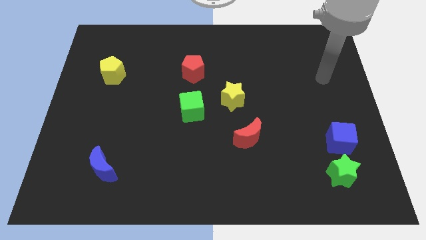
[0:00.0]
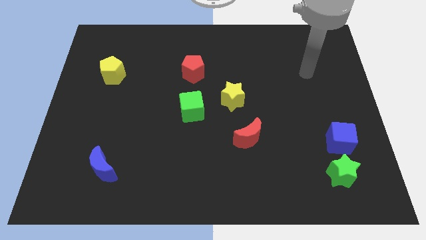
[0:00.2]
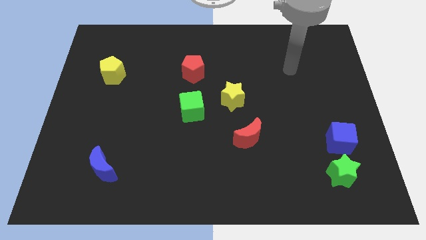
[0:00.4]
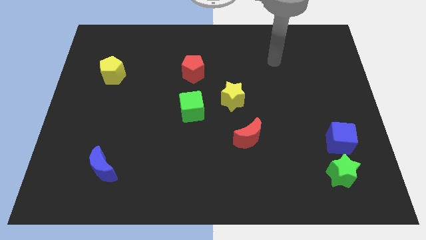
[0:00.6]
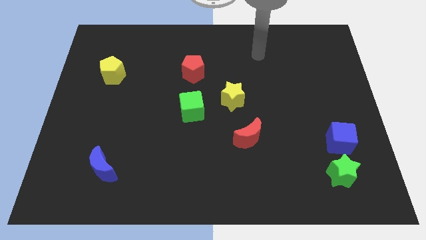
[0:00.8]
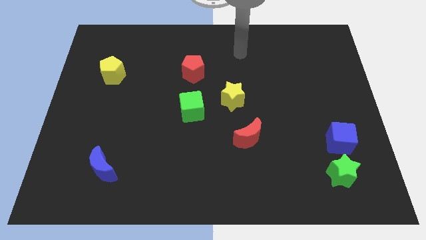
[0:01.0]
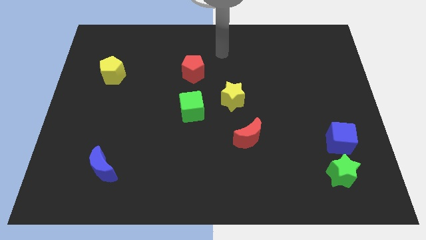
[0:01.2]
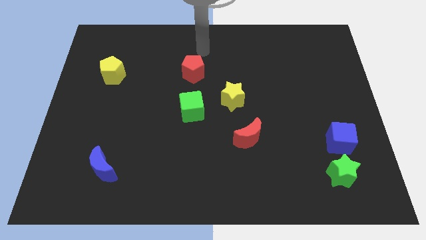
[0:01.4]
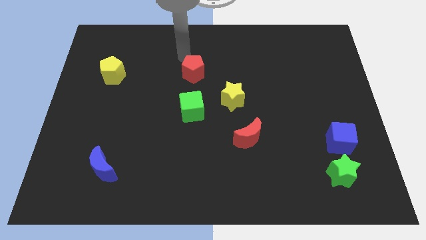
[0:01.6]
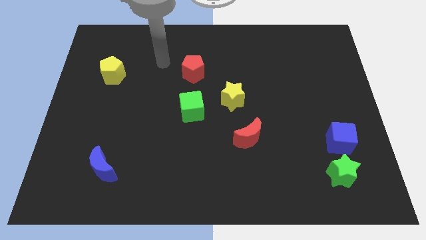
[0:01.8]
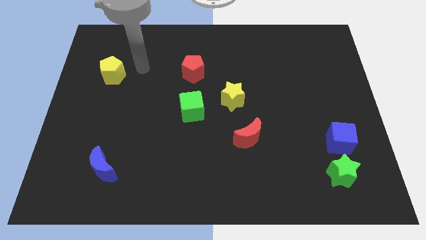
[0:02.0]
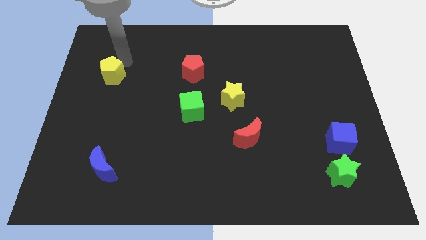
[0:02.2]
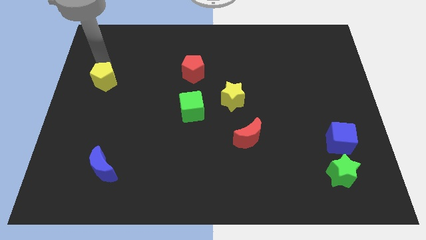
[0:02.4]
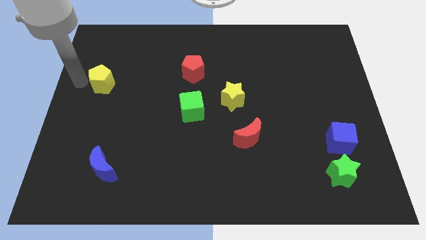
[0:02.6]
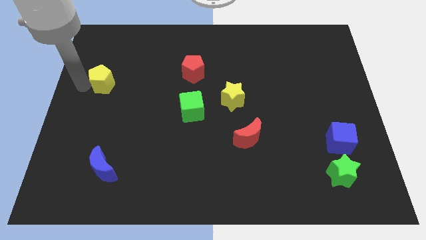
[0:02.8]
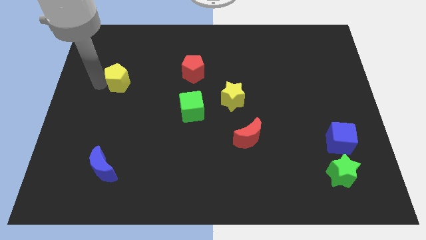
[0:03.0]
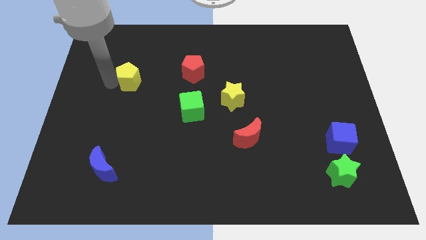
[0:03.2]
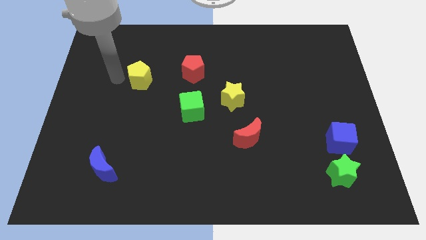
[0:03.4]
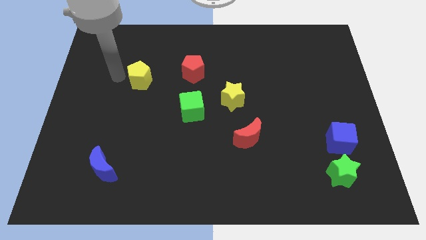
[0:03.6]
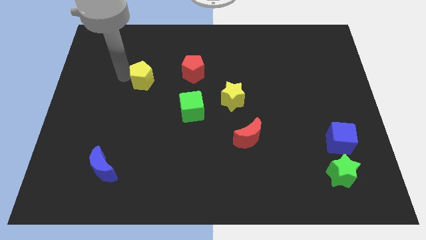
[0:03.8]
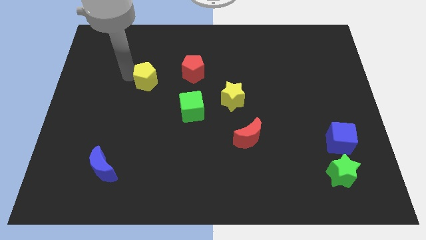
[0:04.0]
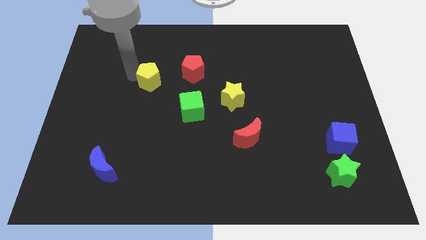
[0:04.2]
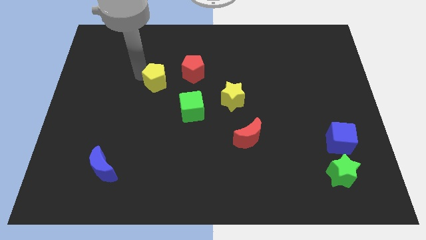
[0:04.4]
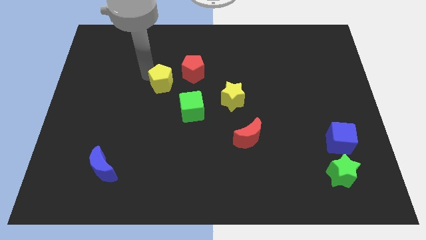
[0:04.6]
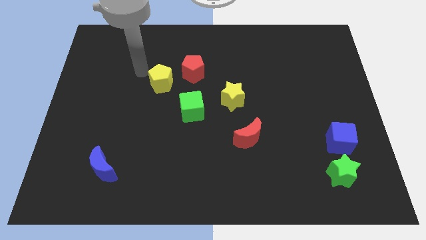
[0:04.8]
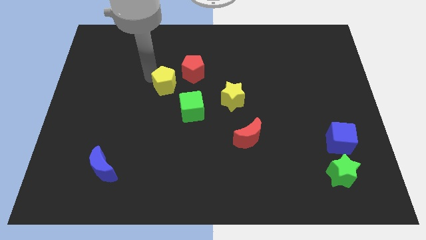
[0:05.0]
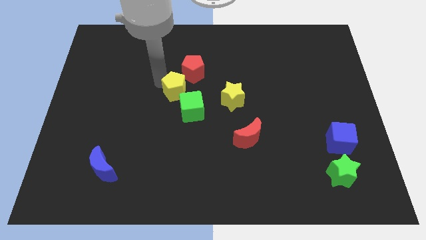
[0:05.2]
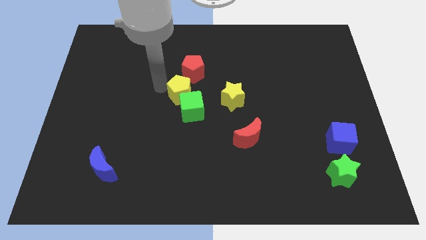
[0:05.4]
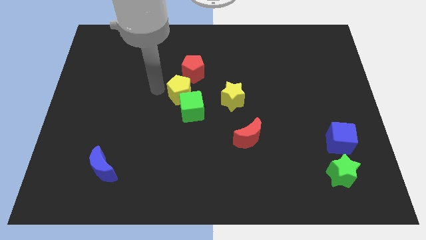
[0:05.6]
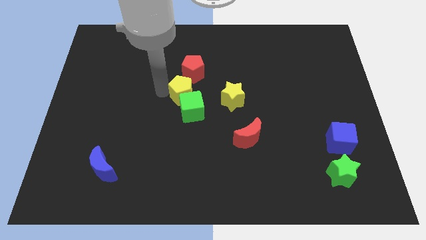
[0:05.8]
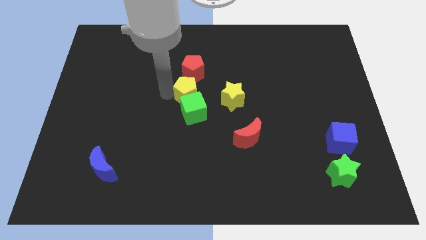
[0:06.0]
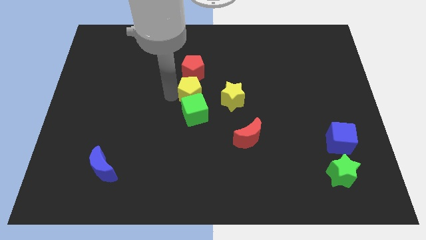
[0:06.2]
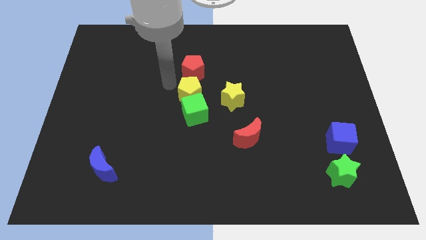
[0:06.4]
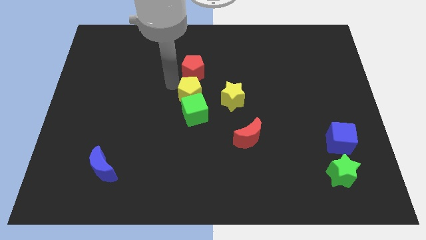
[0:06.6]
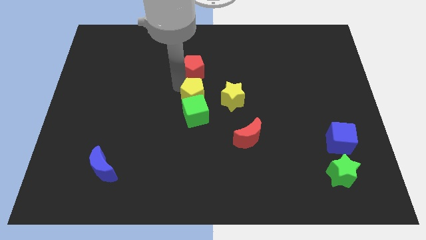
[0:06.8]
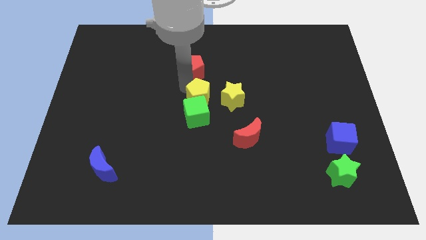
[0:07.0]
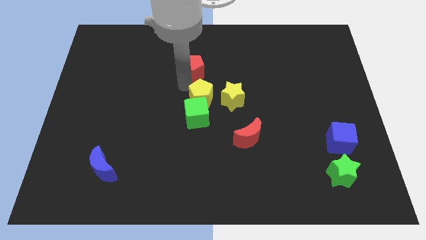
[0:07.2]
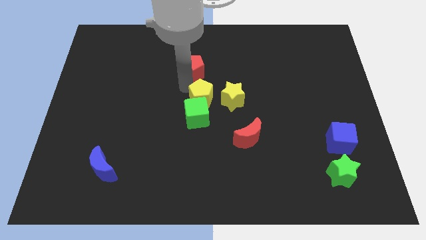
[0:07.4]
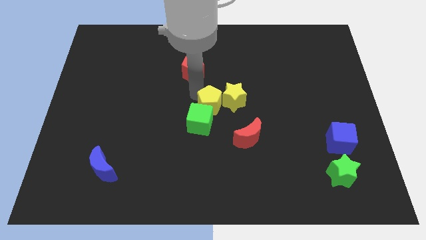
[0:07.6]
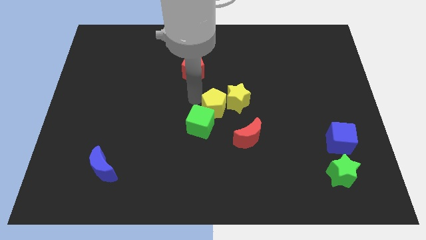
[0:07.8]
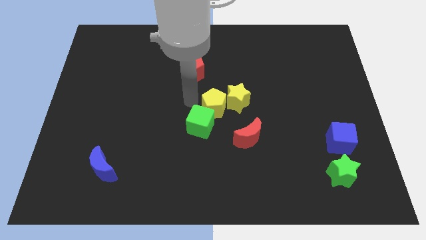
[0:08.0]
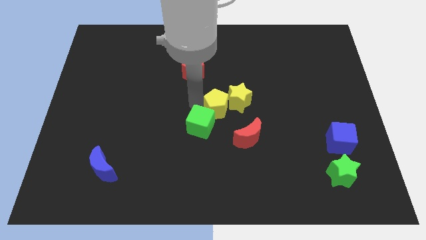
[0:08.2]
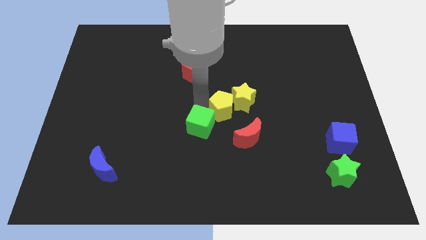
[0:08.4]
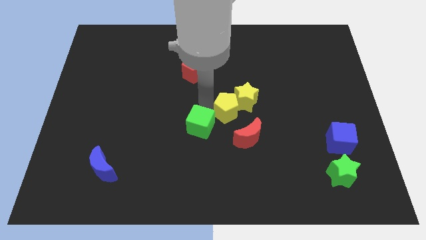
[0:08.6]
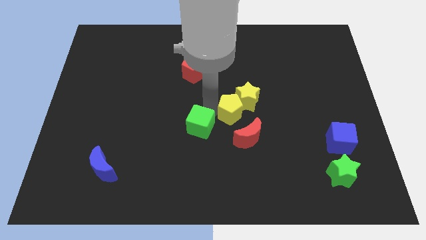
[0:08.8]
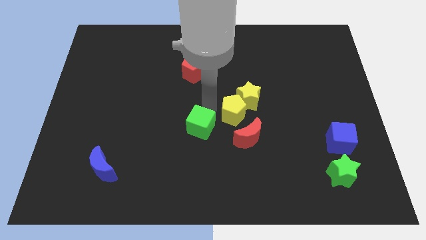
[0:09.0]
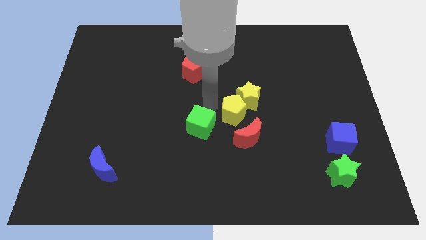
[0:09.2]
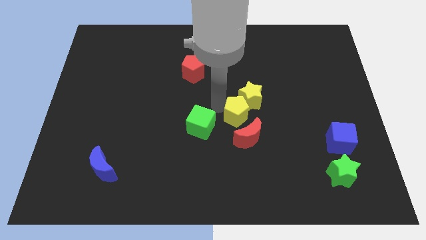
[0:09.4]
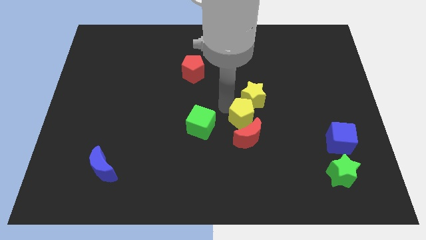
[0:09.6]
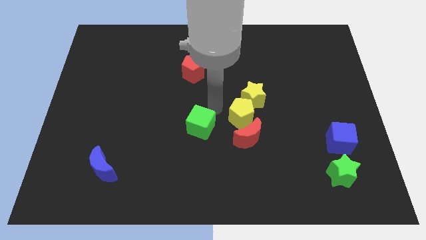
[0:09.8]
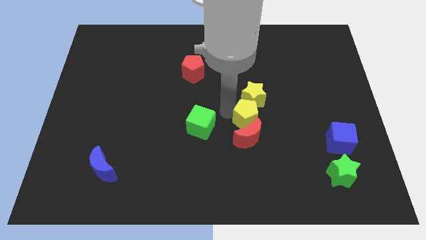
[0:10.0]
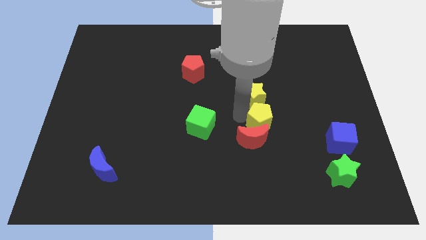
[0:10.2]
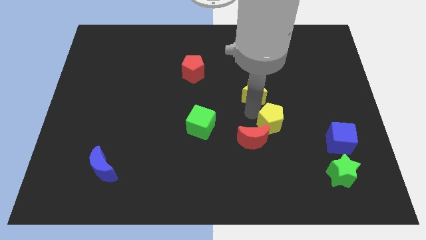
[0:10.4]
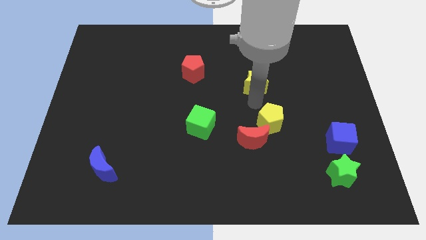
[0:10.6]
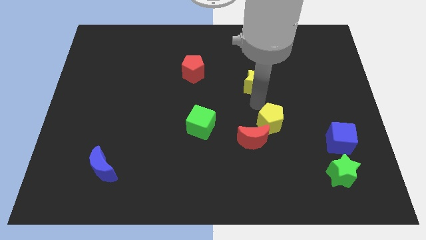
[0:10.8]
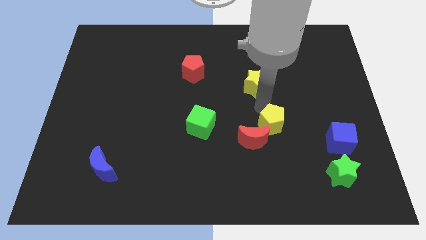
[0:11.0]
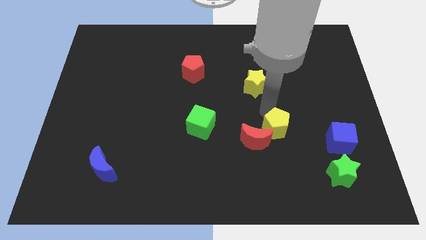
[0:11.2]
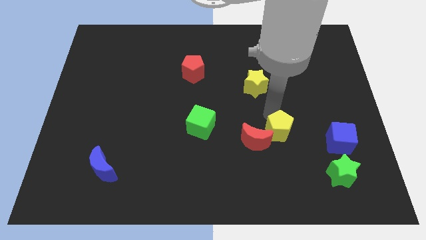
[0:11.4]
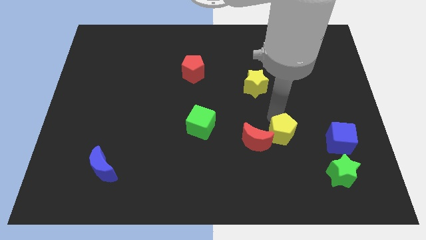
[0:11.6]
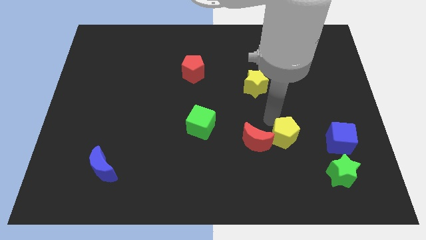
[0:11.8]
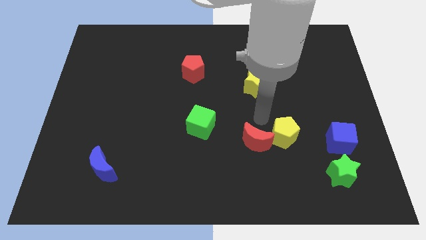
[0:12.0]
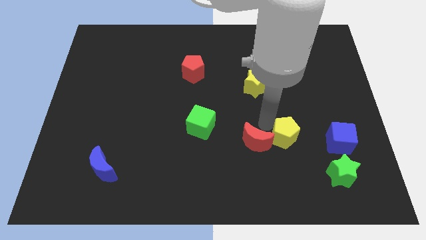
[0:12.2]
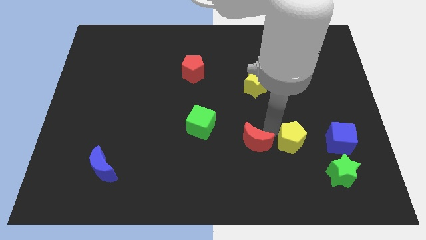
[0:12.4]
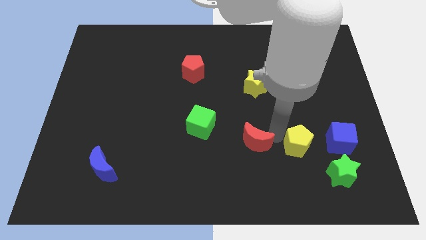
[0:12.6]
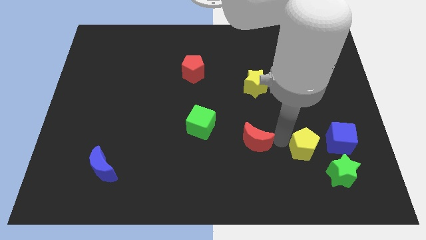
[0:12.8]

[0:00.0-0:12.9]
move the yellow pentagon to the bottom left side of the blue cube

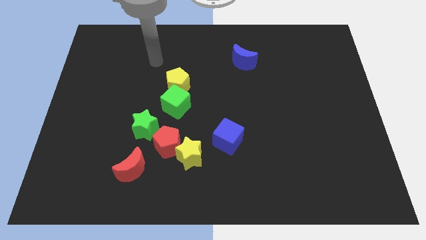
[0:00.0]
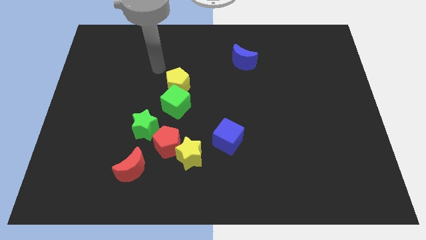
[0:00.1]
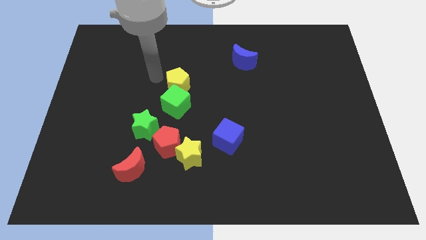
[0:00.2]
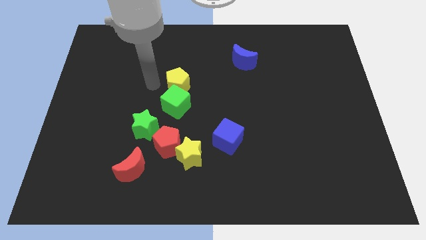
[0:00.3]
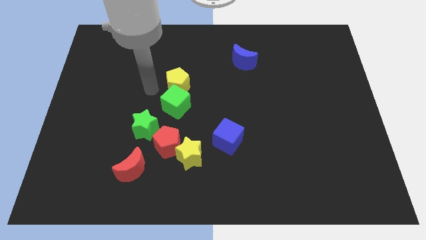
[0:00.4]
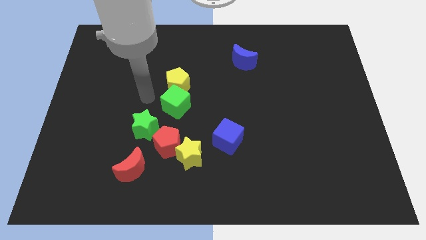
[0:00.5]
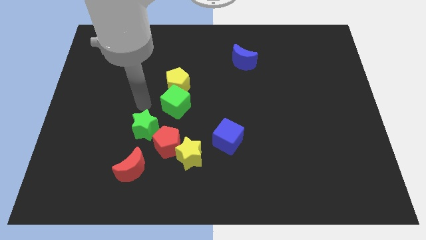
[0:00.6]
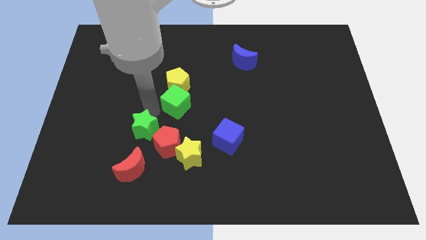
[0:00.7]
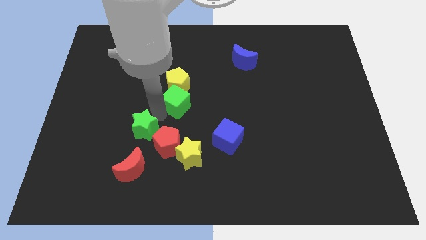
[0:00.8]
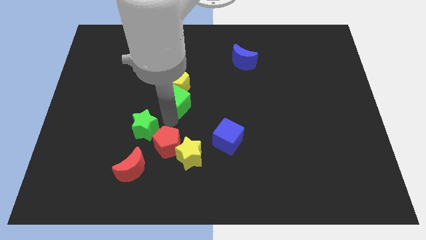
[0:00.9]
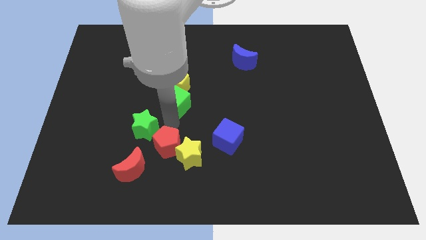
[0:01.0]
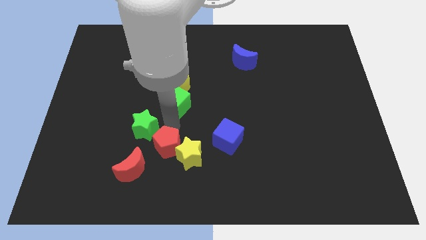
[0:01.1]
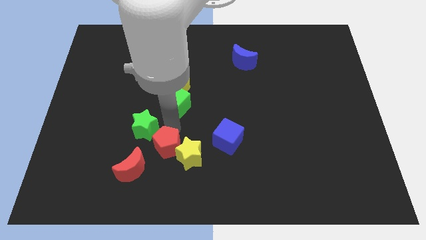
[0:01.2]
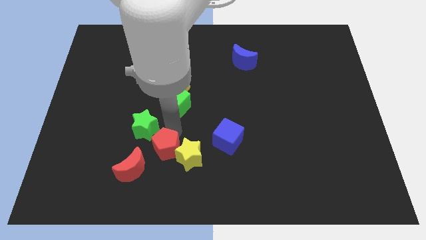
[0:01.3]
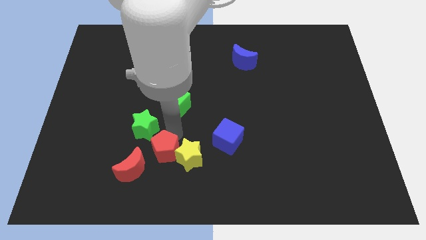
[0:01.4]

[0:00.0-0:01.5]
put the red pentagon diagonally down and to the left of the yellow star
